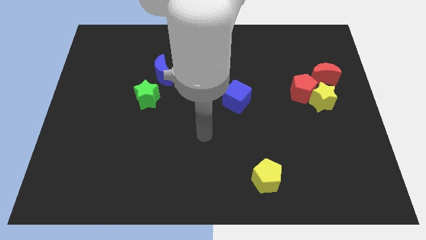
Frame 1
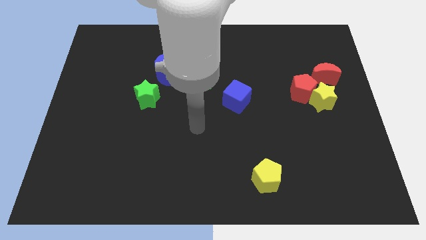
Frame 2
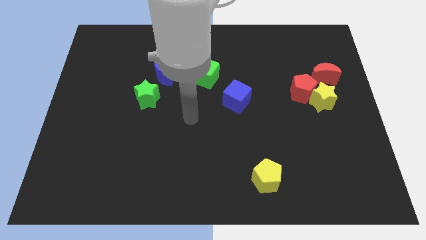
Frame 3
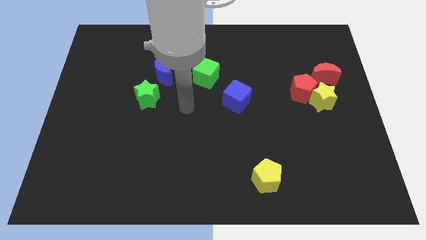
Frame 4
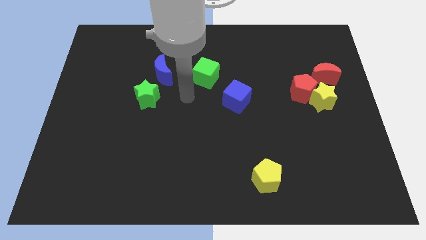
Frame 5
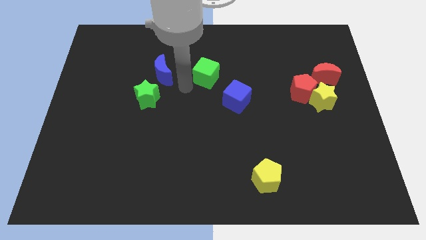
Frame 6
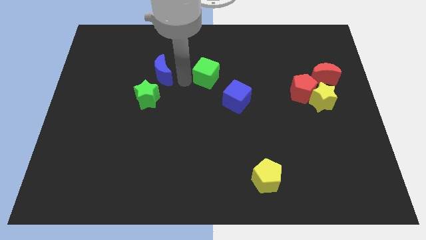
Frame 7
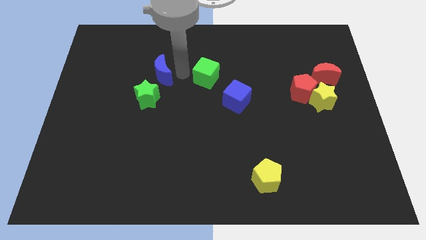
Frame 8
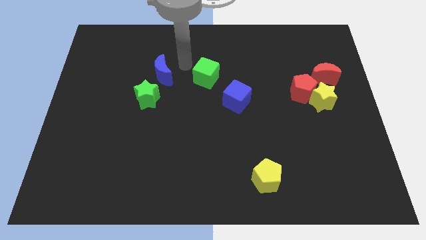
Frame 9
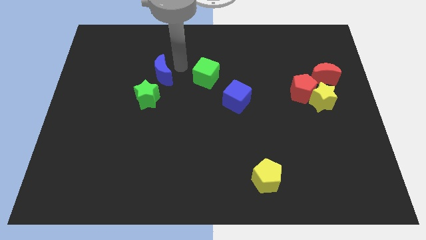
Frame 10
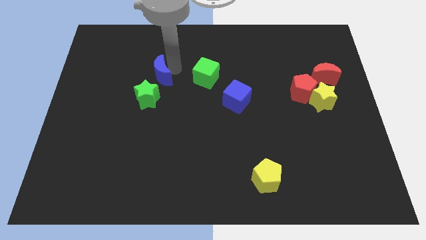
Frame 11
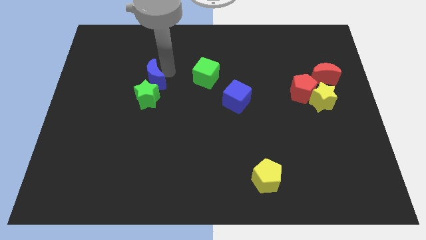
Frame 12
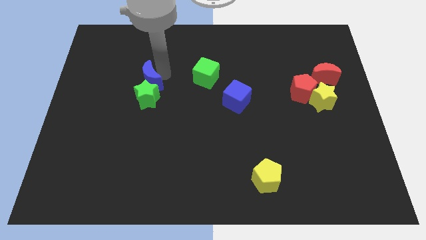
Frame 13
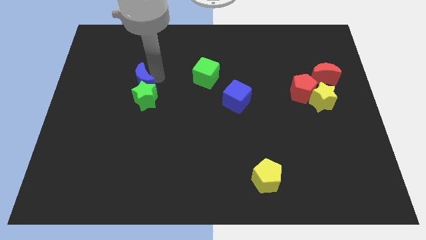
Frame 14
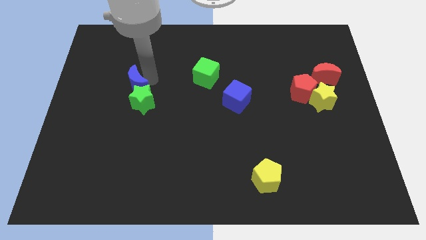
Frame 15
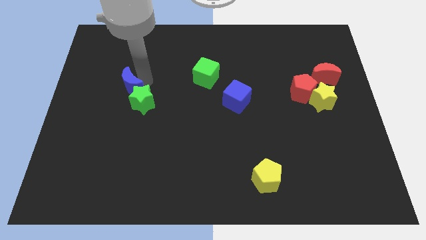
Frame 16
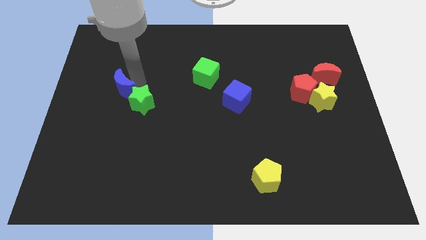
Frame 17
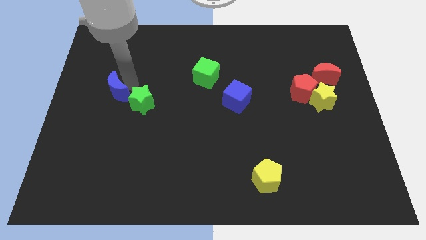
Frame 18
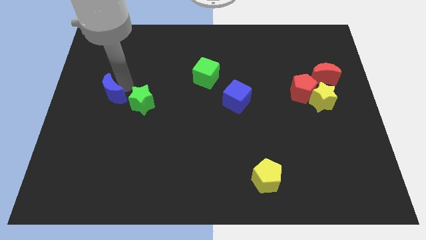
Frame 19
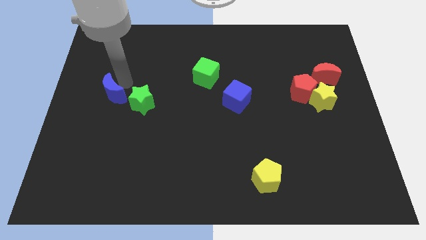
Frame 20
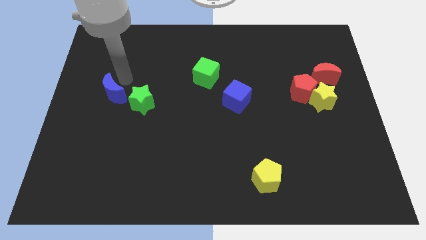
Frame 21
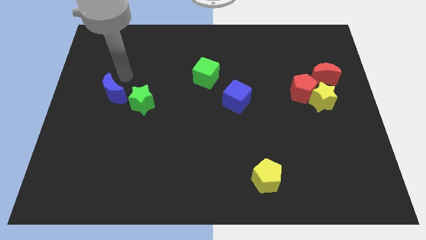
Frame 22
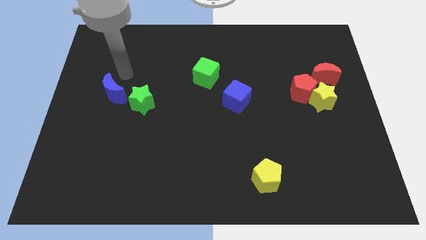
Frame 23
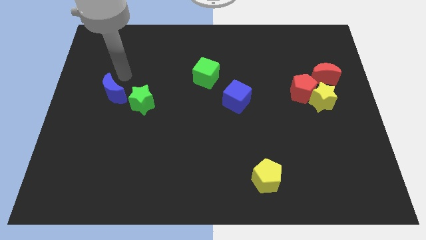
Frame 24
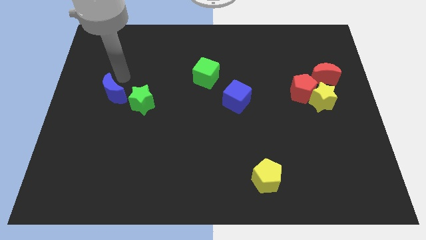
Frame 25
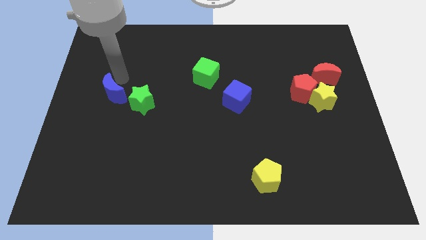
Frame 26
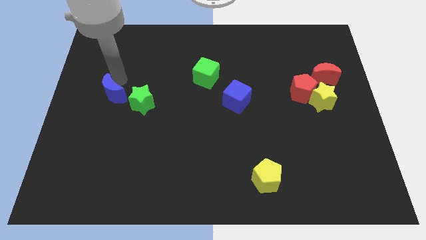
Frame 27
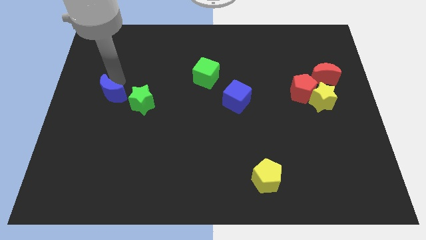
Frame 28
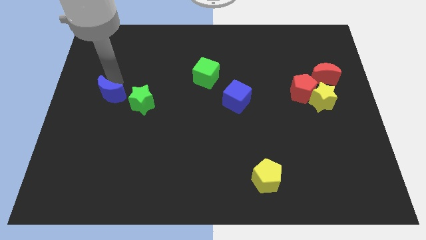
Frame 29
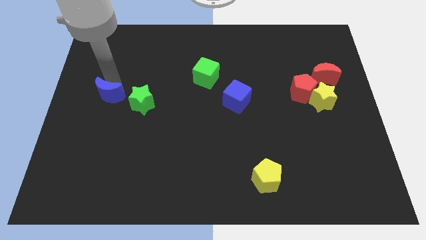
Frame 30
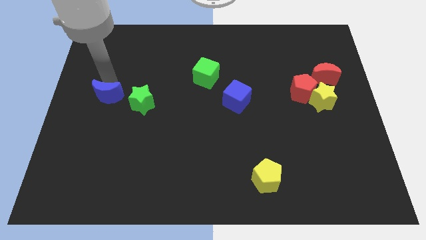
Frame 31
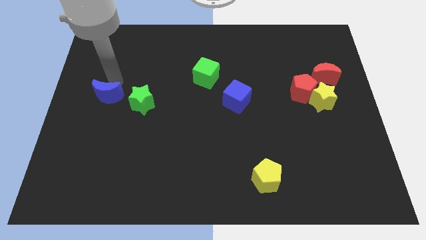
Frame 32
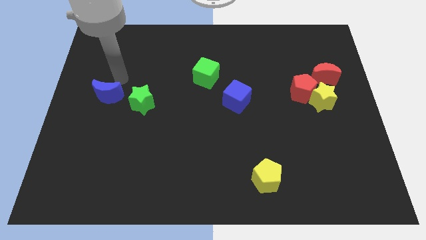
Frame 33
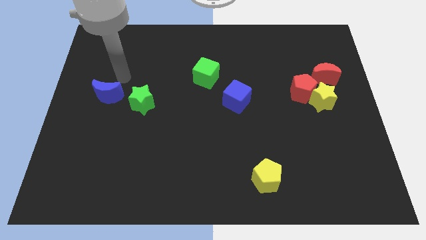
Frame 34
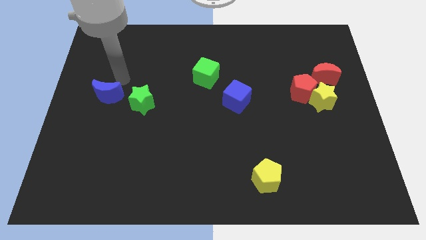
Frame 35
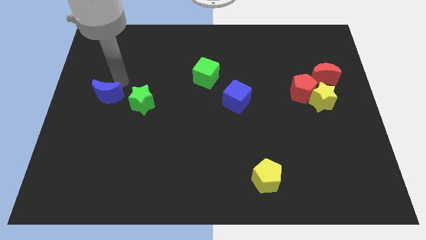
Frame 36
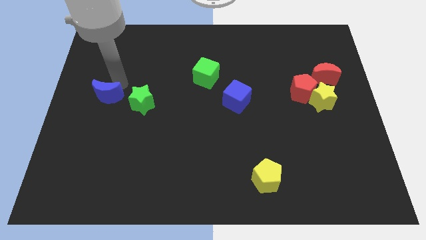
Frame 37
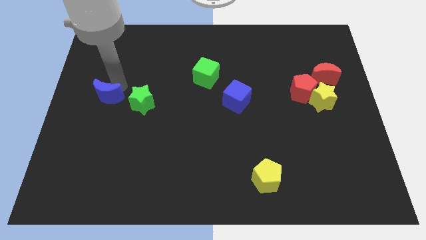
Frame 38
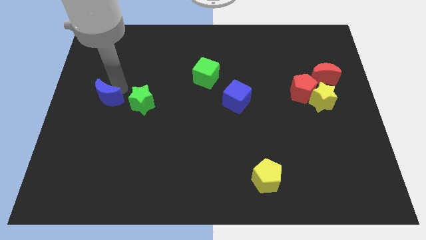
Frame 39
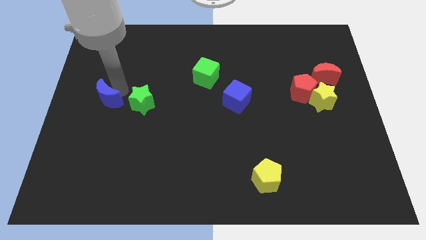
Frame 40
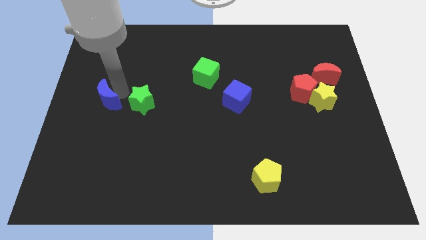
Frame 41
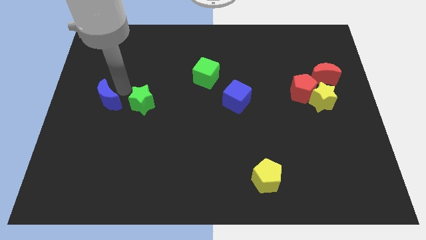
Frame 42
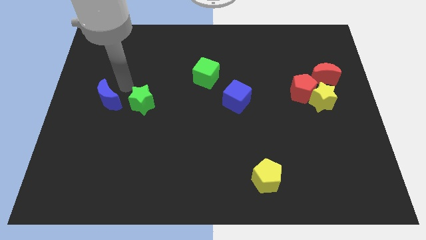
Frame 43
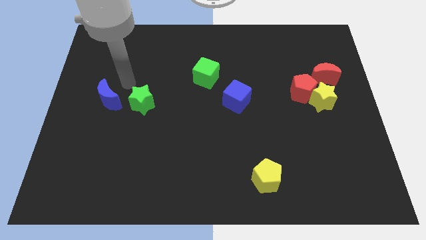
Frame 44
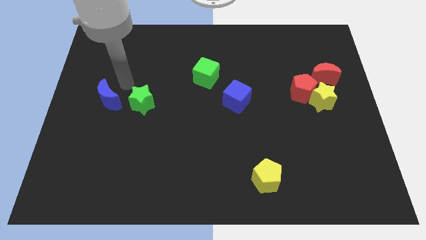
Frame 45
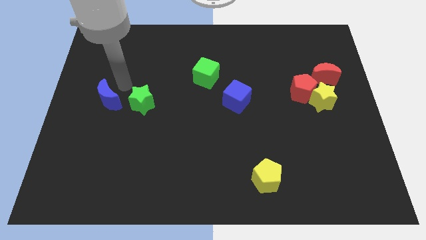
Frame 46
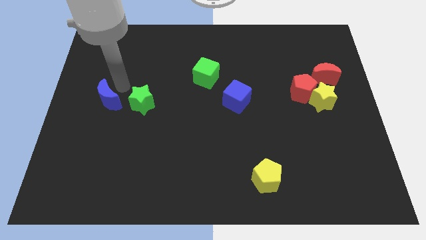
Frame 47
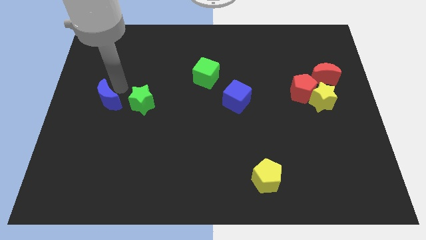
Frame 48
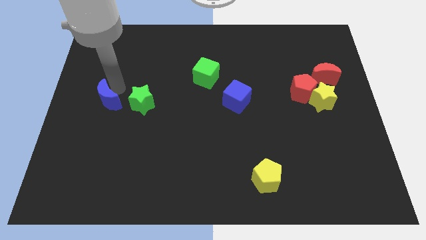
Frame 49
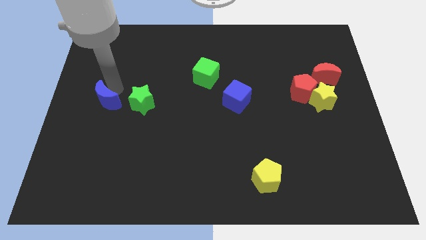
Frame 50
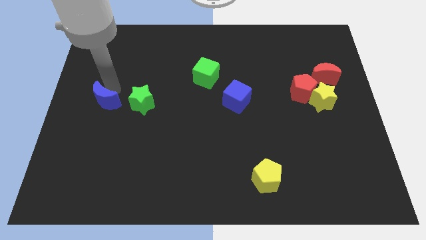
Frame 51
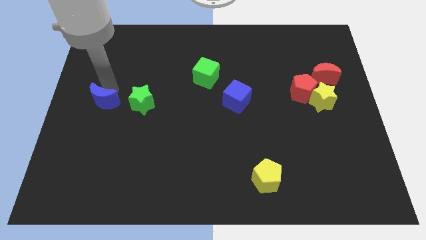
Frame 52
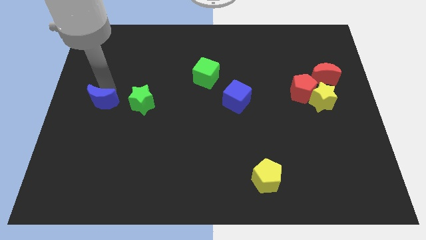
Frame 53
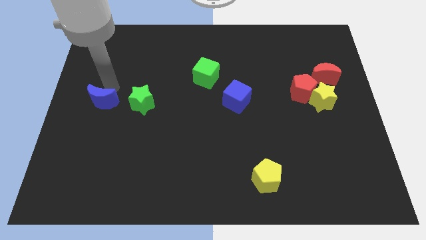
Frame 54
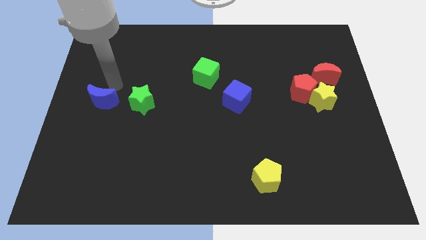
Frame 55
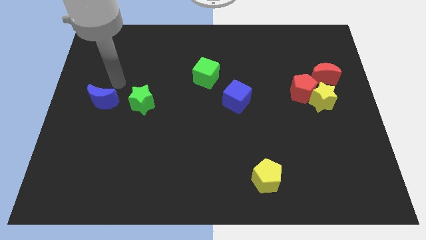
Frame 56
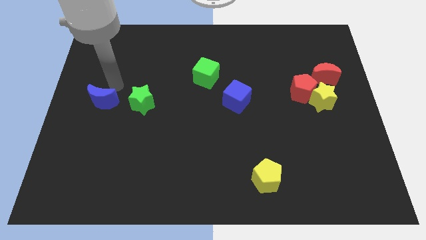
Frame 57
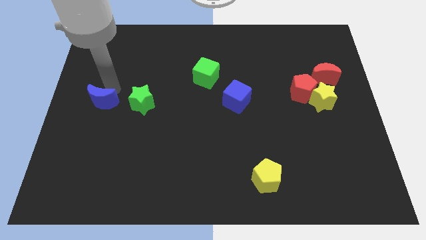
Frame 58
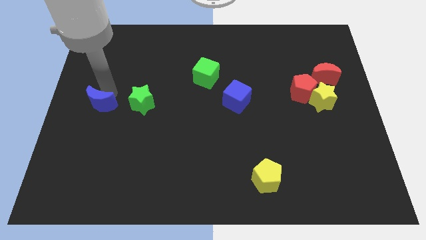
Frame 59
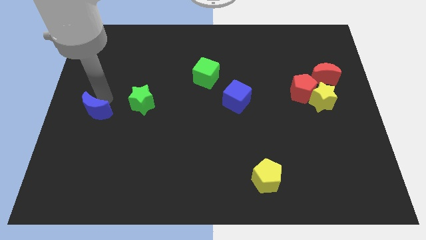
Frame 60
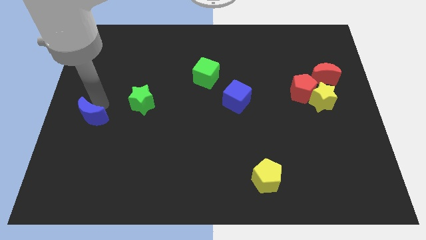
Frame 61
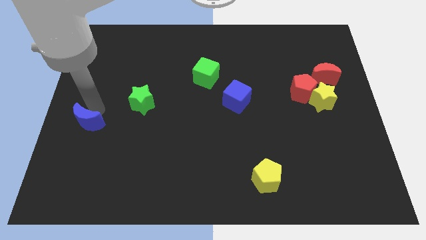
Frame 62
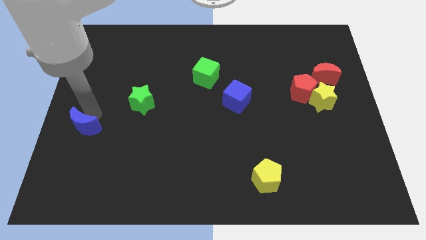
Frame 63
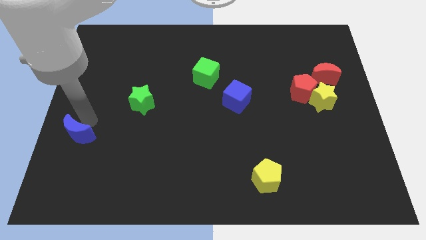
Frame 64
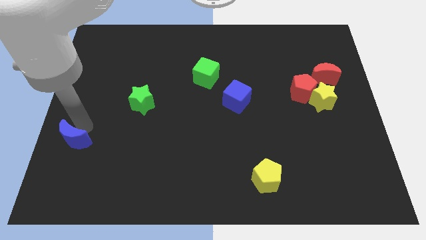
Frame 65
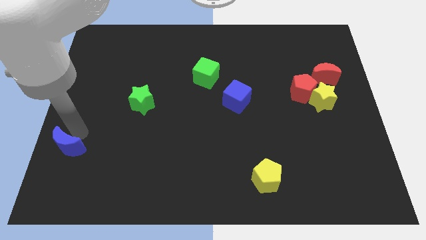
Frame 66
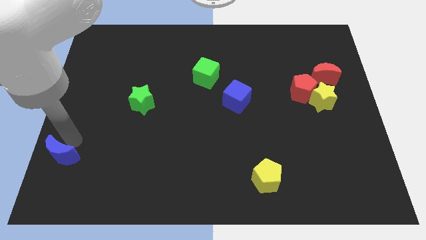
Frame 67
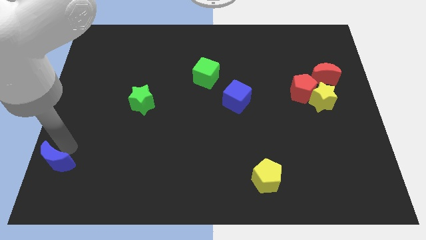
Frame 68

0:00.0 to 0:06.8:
slide the blue moon to the bottom left corner

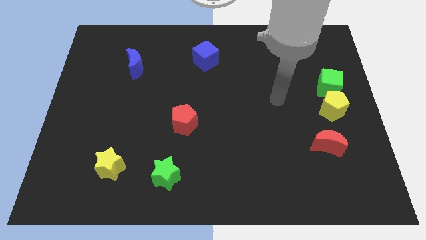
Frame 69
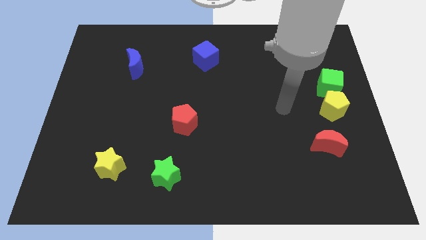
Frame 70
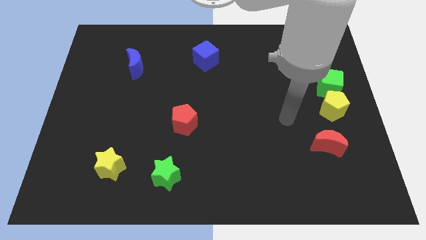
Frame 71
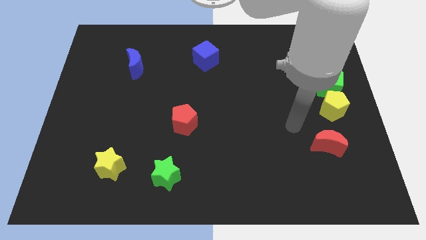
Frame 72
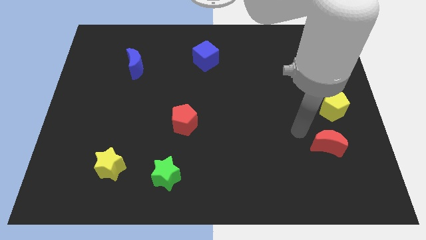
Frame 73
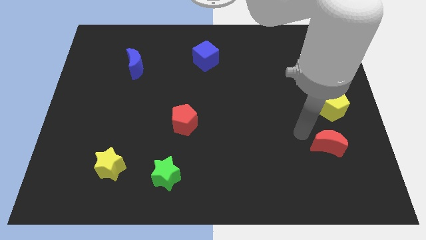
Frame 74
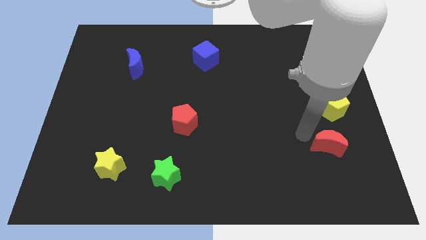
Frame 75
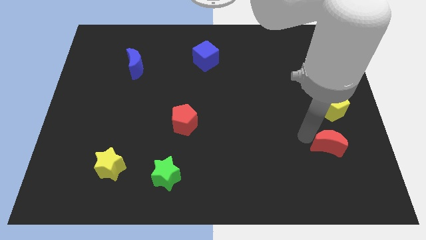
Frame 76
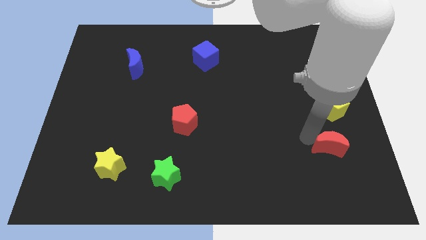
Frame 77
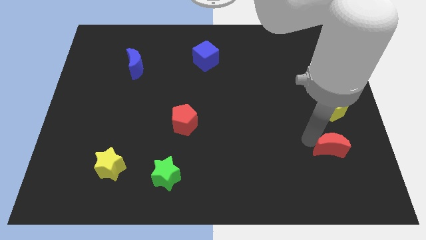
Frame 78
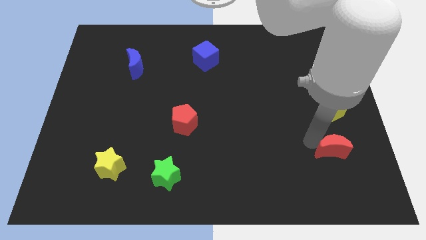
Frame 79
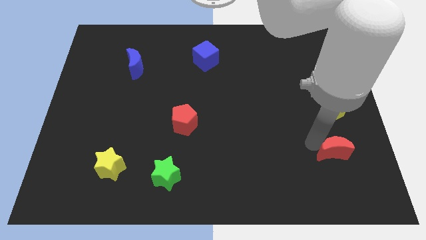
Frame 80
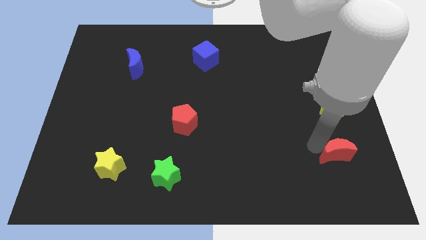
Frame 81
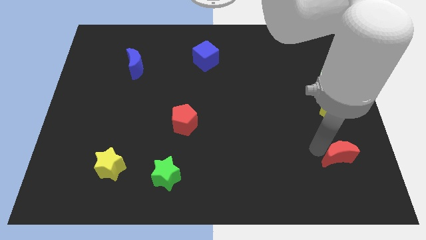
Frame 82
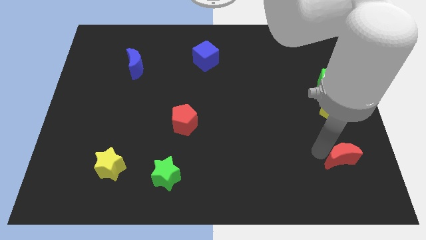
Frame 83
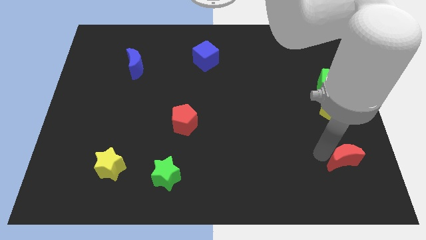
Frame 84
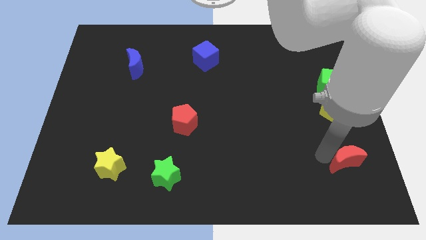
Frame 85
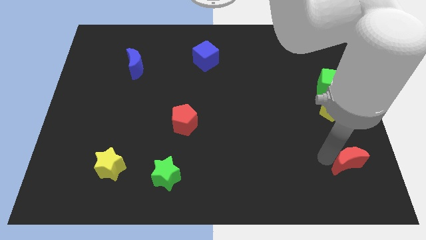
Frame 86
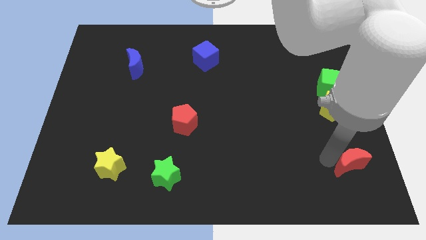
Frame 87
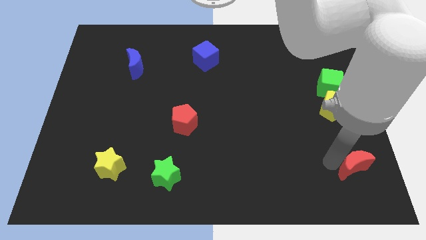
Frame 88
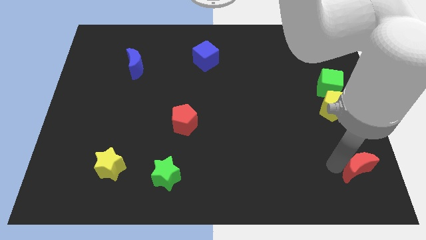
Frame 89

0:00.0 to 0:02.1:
put the red moon to the bottom right corner
